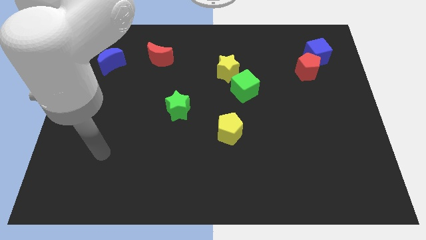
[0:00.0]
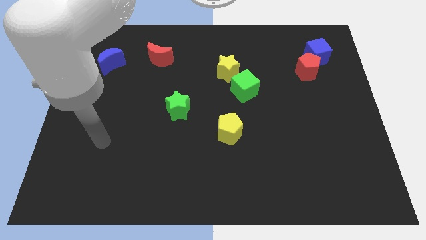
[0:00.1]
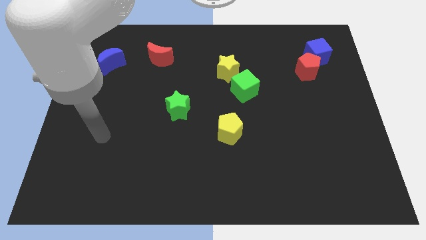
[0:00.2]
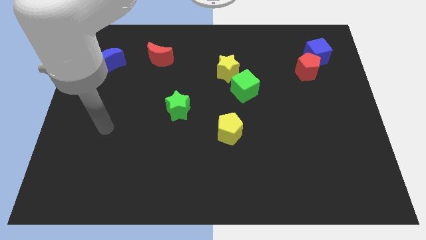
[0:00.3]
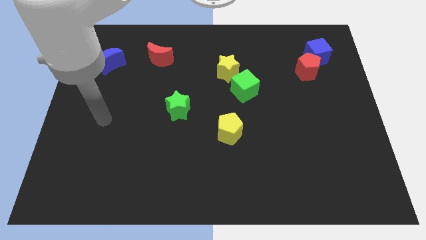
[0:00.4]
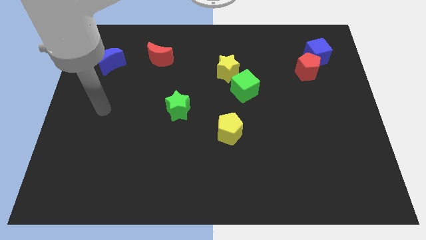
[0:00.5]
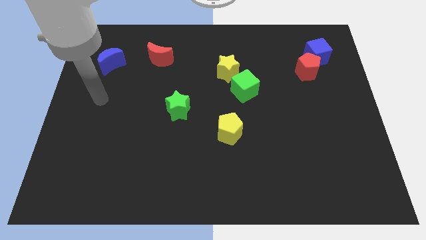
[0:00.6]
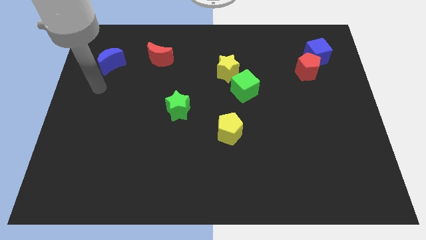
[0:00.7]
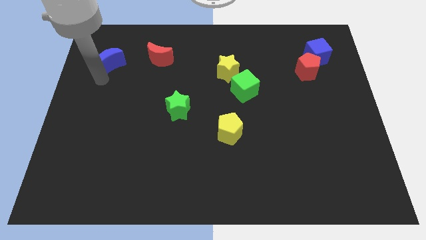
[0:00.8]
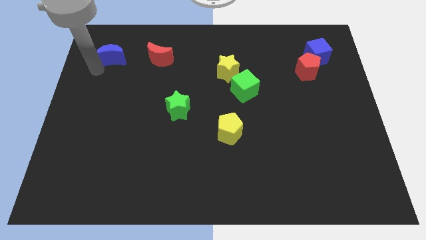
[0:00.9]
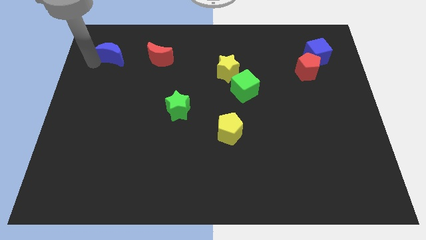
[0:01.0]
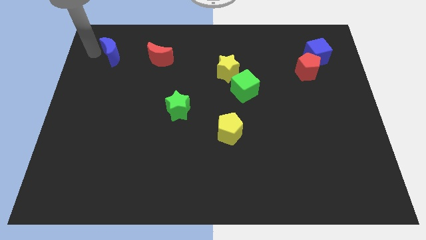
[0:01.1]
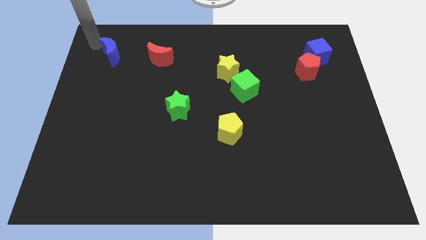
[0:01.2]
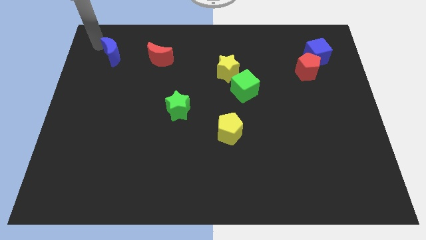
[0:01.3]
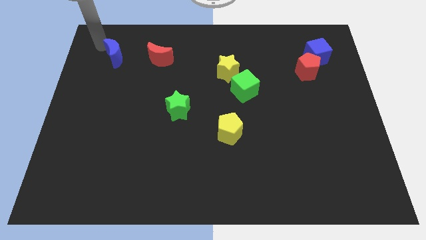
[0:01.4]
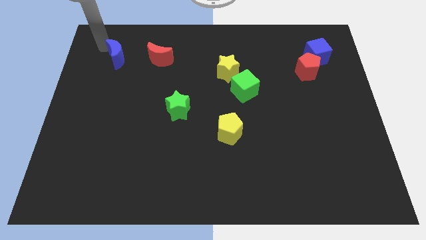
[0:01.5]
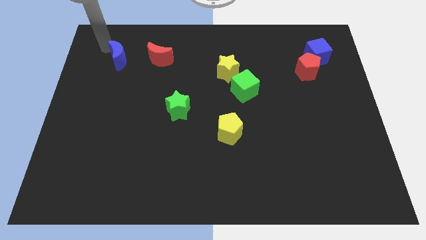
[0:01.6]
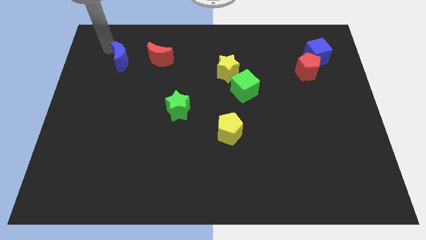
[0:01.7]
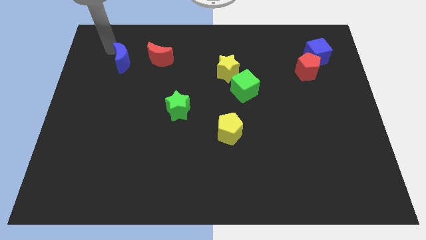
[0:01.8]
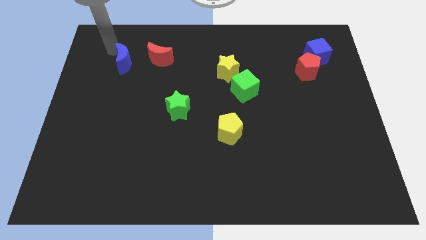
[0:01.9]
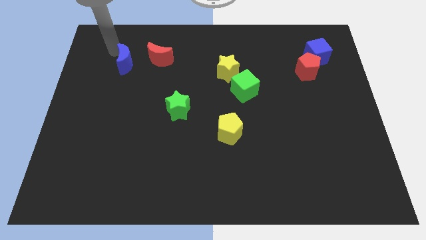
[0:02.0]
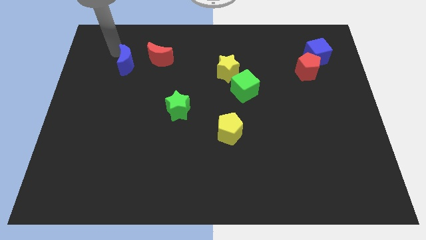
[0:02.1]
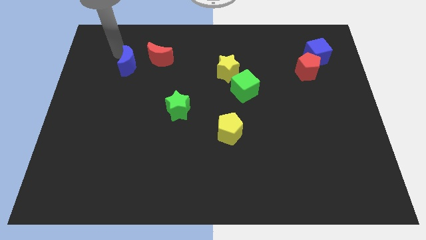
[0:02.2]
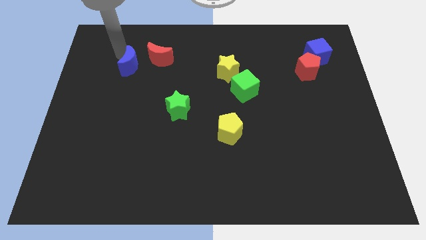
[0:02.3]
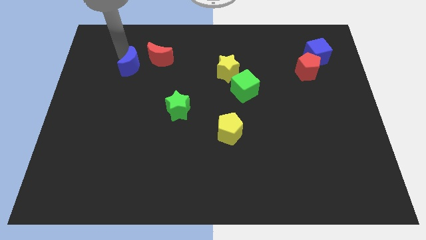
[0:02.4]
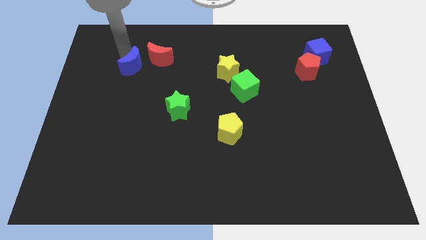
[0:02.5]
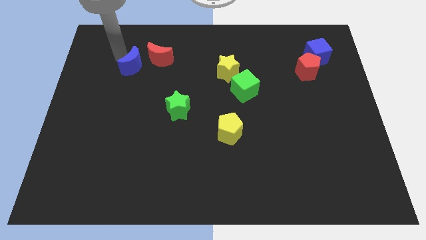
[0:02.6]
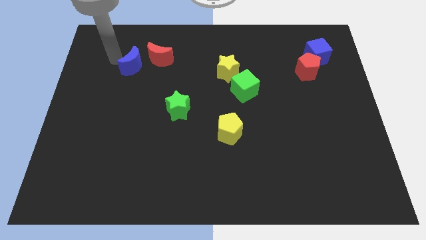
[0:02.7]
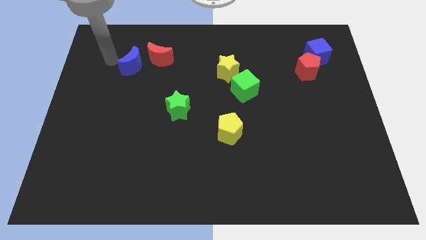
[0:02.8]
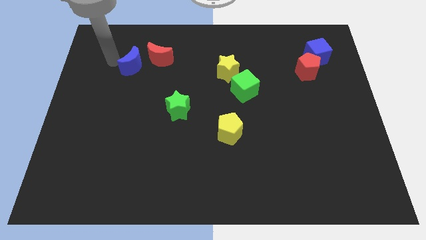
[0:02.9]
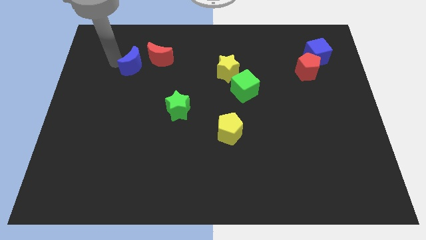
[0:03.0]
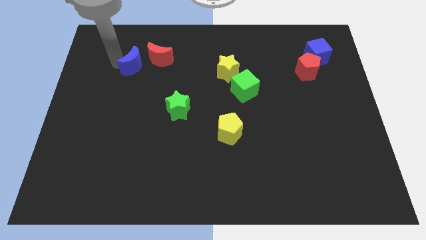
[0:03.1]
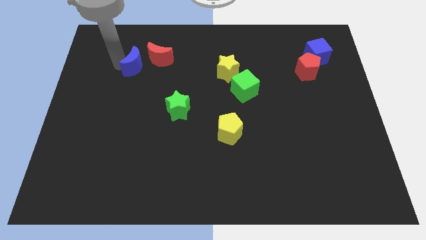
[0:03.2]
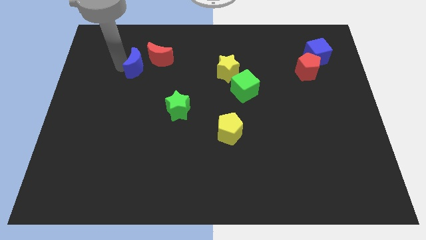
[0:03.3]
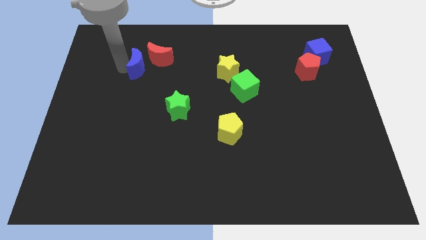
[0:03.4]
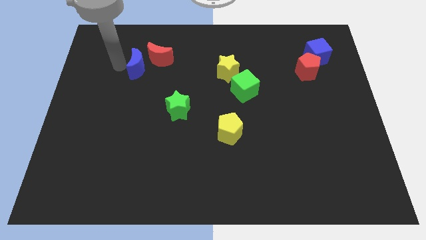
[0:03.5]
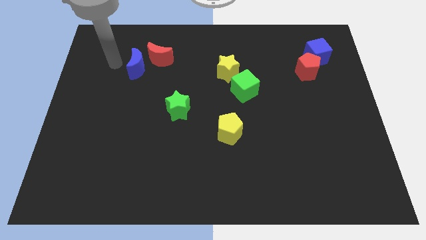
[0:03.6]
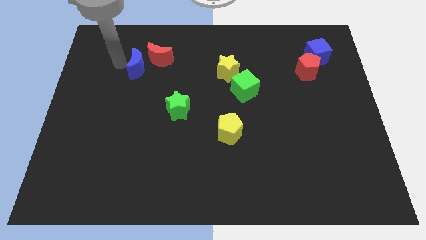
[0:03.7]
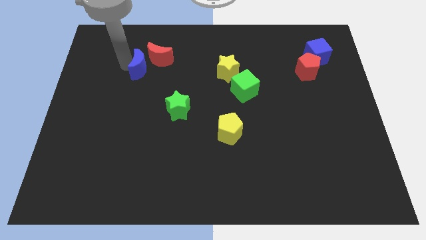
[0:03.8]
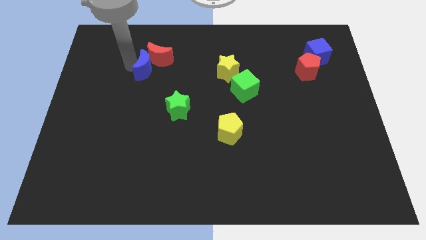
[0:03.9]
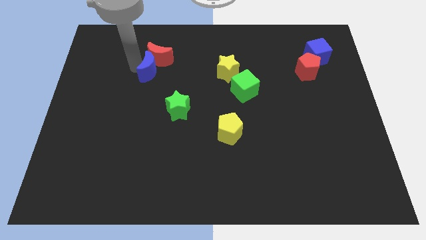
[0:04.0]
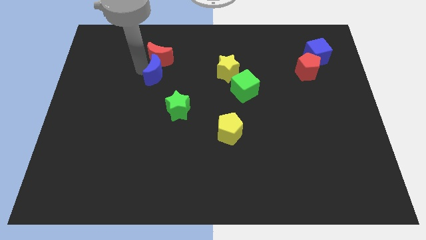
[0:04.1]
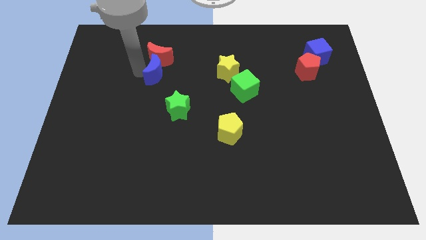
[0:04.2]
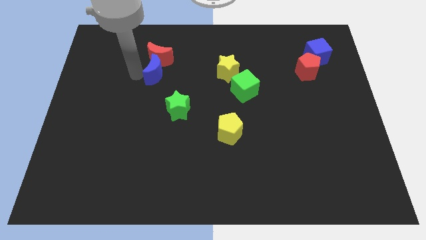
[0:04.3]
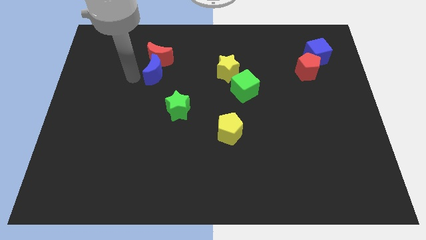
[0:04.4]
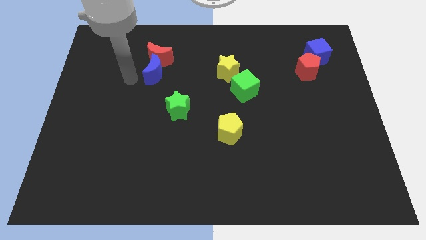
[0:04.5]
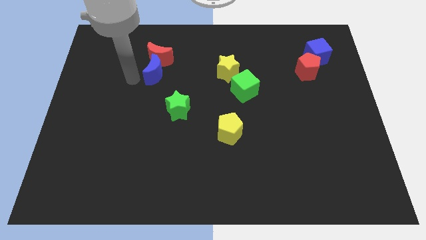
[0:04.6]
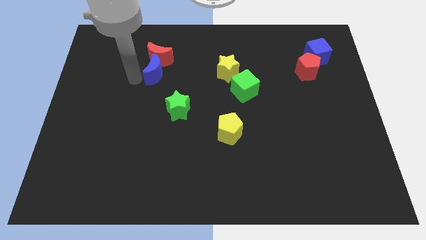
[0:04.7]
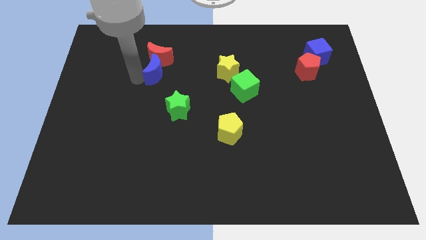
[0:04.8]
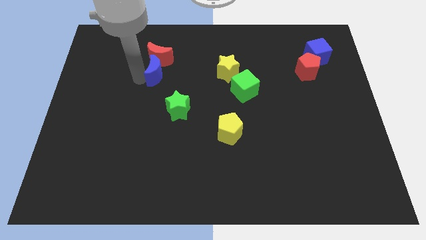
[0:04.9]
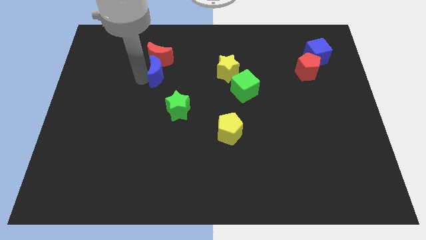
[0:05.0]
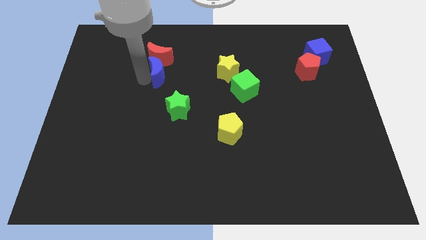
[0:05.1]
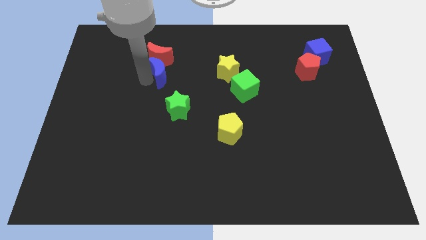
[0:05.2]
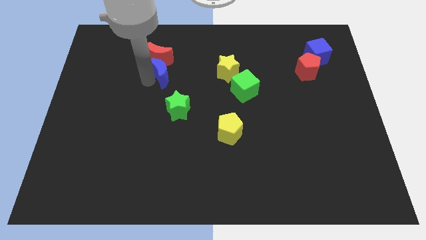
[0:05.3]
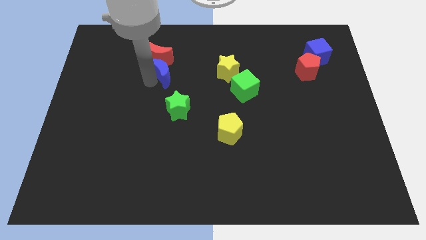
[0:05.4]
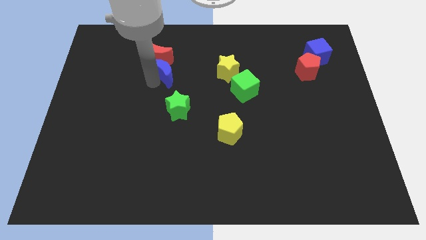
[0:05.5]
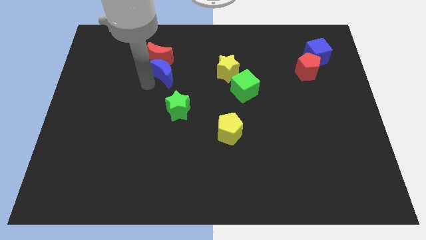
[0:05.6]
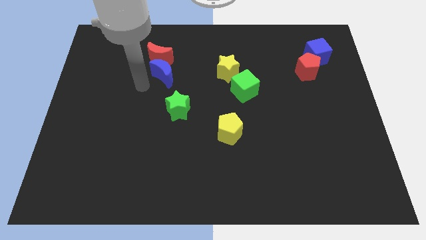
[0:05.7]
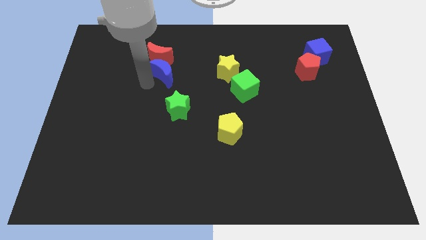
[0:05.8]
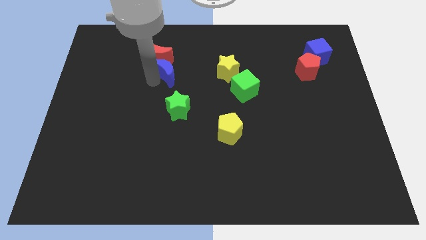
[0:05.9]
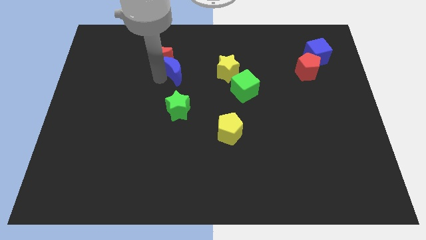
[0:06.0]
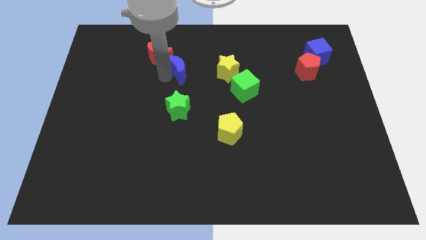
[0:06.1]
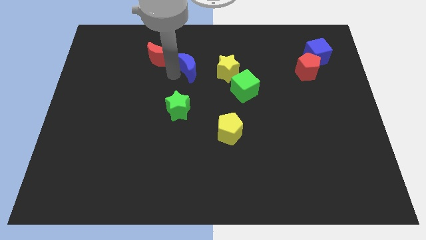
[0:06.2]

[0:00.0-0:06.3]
move the blue moon to the right

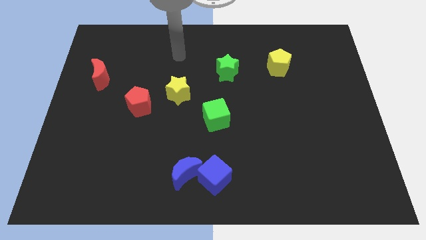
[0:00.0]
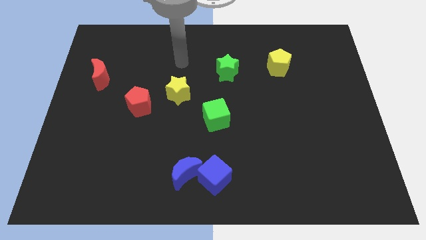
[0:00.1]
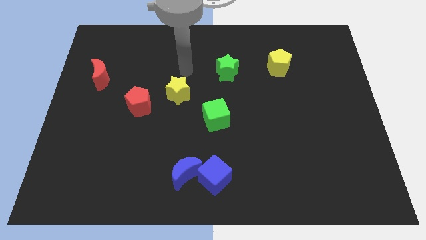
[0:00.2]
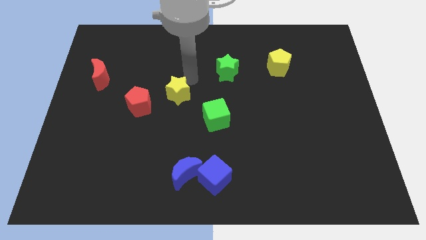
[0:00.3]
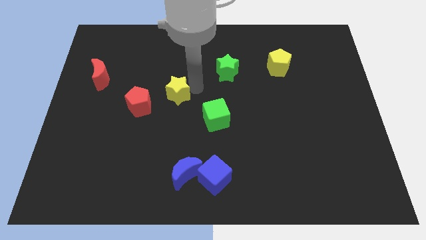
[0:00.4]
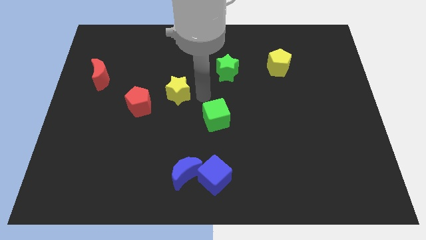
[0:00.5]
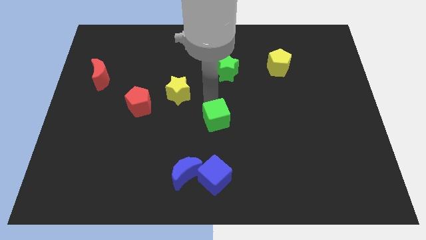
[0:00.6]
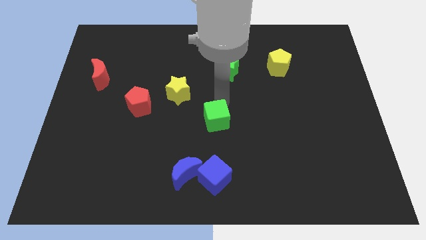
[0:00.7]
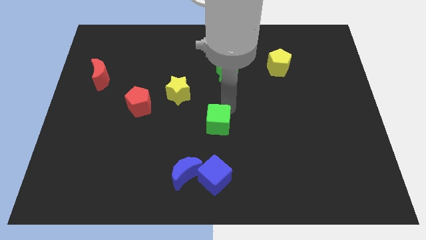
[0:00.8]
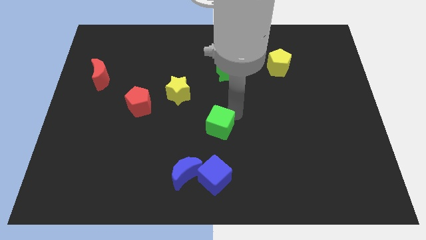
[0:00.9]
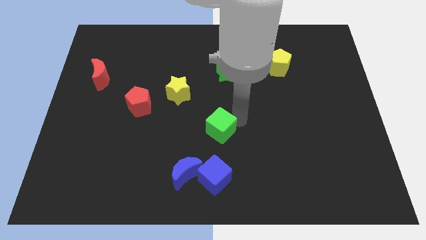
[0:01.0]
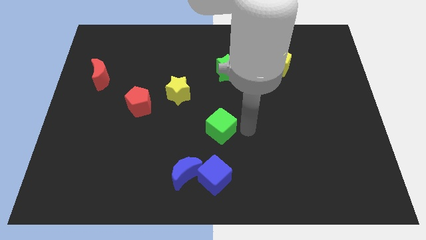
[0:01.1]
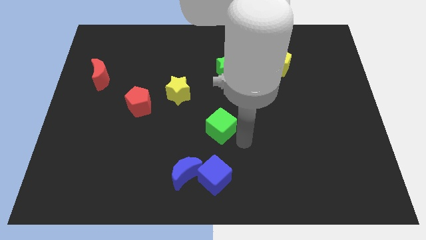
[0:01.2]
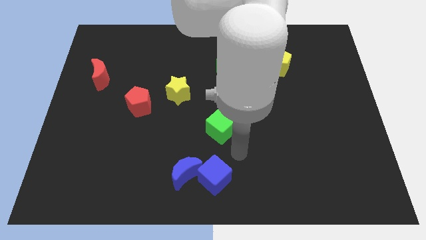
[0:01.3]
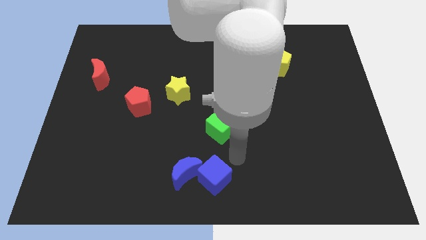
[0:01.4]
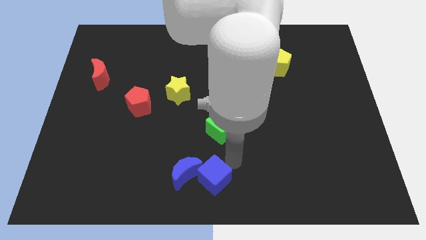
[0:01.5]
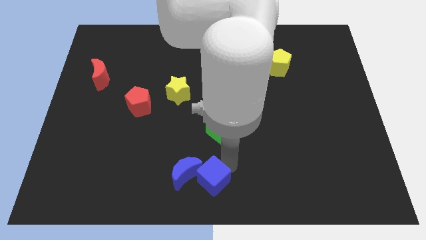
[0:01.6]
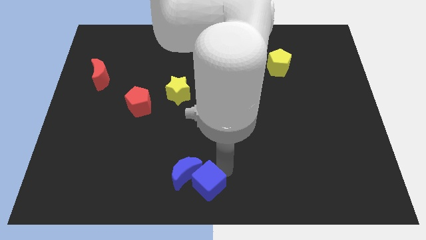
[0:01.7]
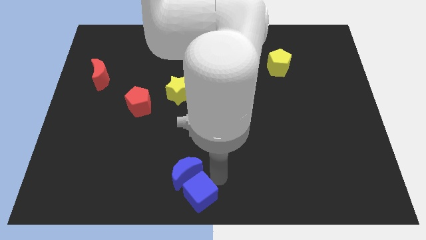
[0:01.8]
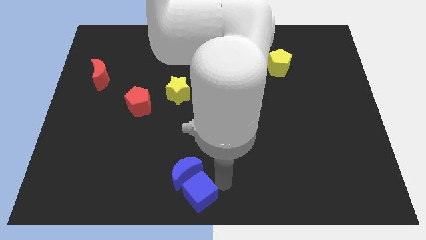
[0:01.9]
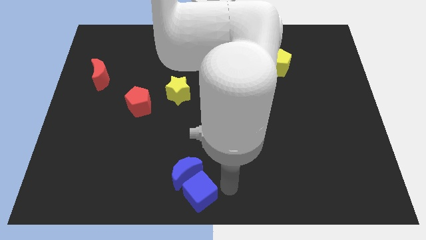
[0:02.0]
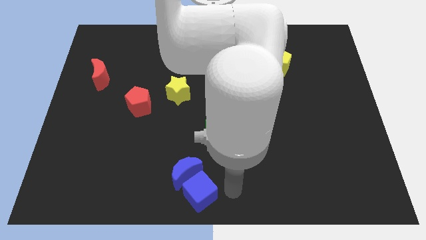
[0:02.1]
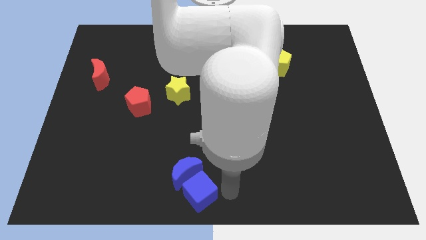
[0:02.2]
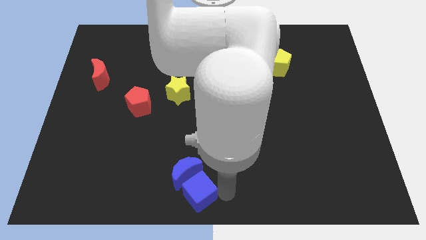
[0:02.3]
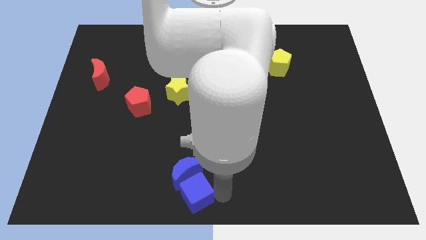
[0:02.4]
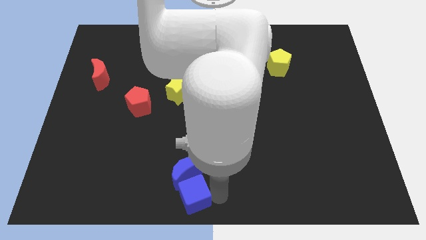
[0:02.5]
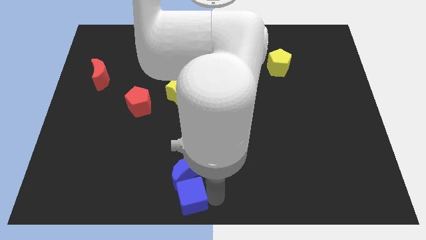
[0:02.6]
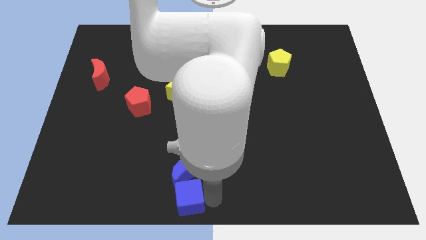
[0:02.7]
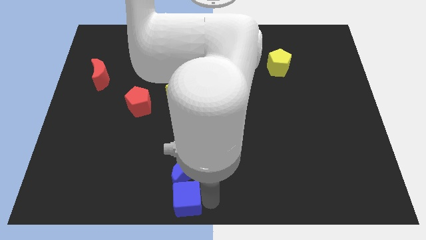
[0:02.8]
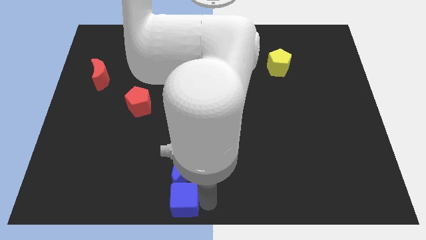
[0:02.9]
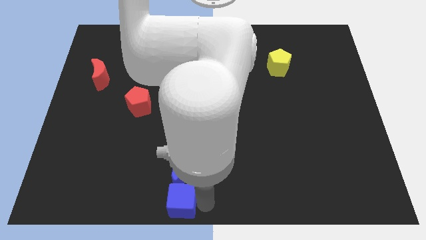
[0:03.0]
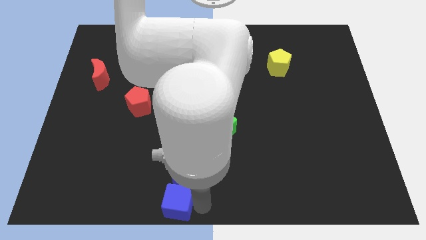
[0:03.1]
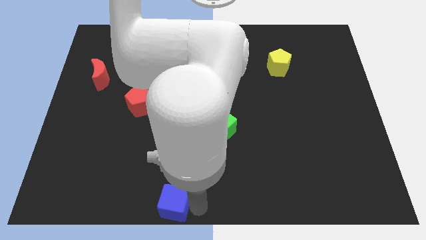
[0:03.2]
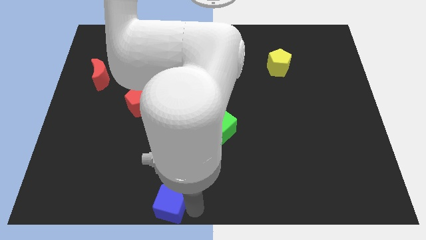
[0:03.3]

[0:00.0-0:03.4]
slide the blue cube to the left slightly
